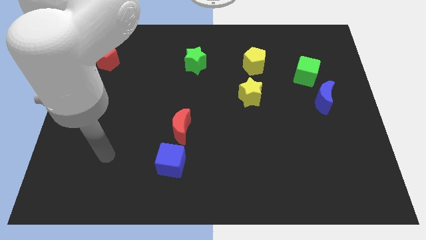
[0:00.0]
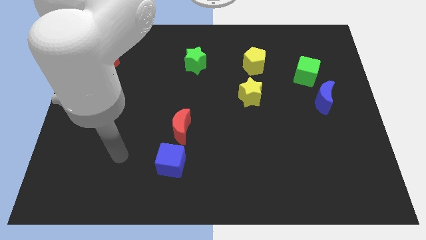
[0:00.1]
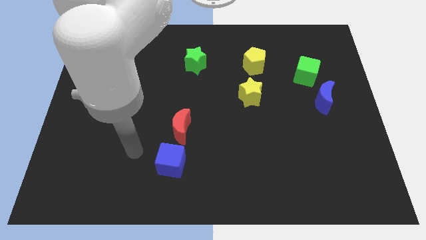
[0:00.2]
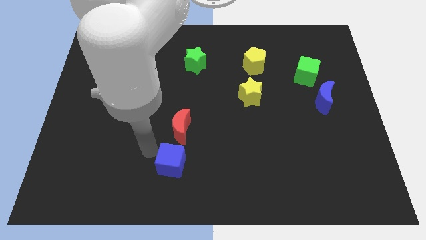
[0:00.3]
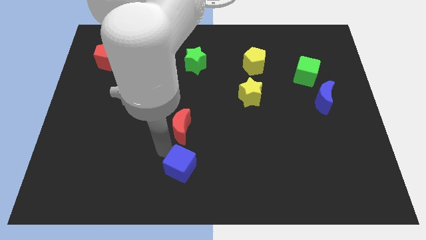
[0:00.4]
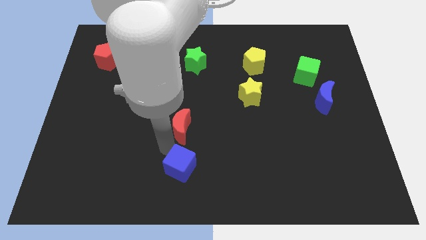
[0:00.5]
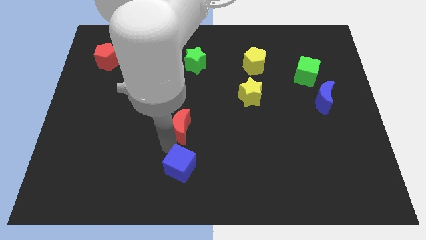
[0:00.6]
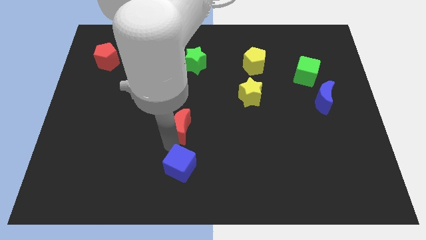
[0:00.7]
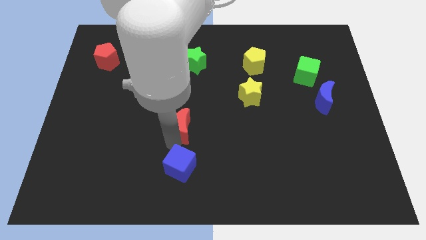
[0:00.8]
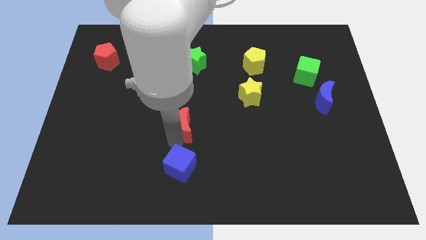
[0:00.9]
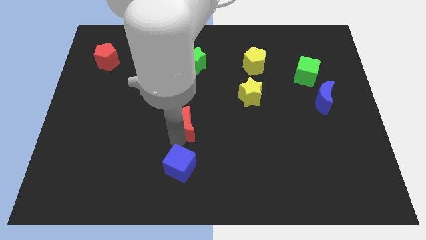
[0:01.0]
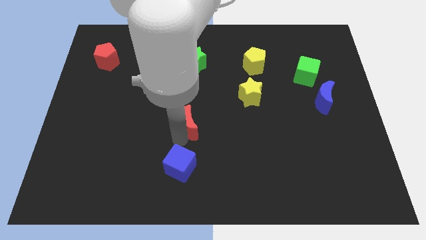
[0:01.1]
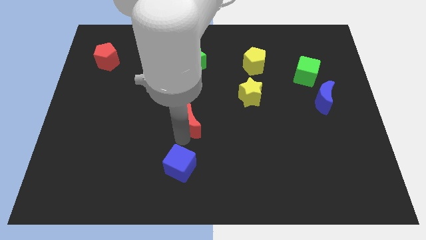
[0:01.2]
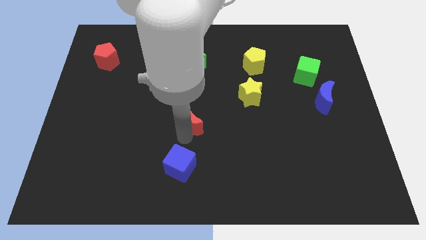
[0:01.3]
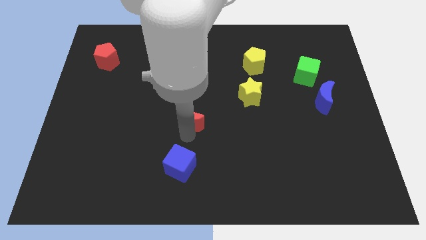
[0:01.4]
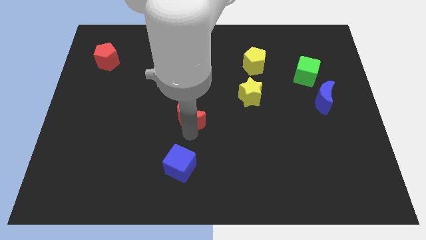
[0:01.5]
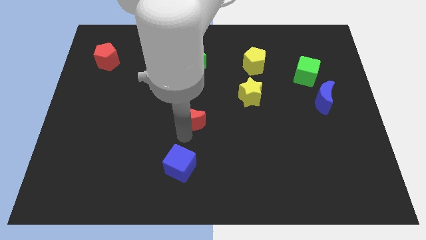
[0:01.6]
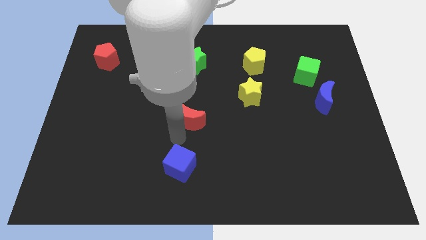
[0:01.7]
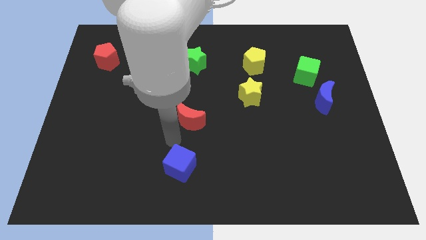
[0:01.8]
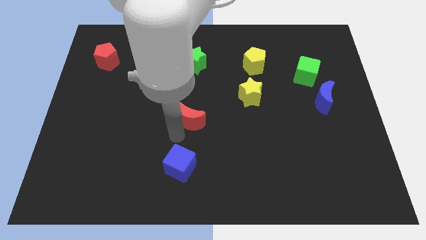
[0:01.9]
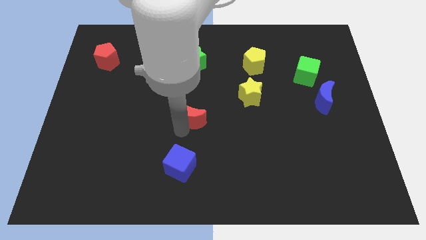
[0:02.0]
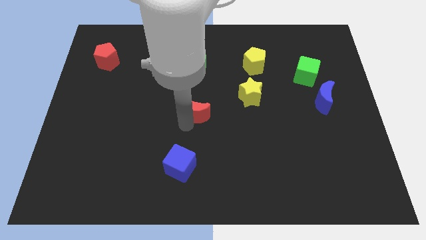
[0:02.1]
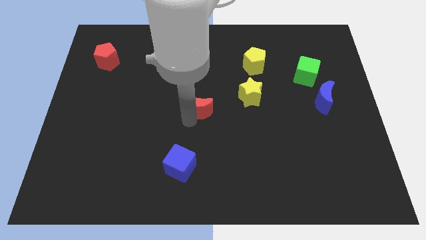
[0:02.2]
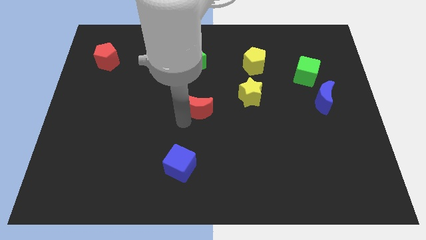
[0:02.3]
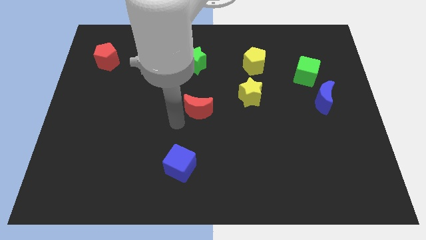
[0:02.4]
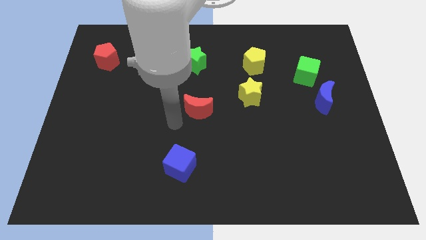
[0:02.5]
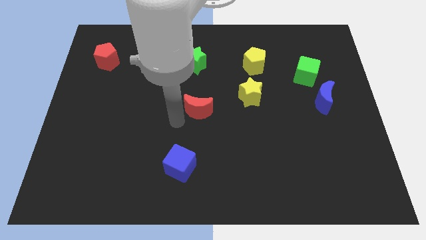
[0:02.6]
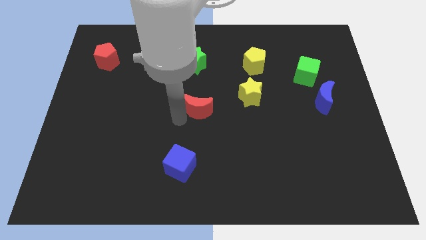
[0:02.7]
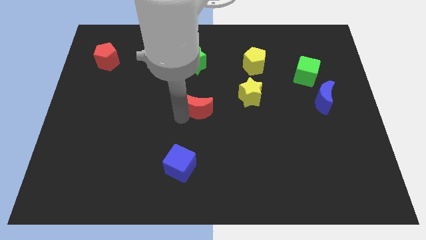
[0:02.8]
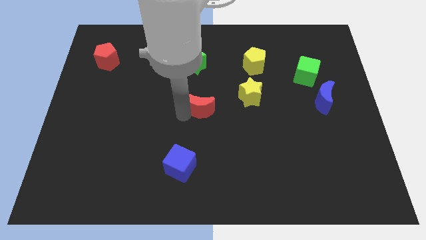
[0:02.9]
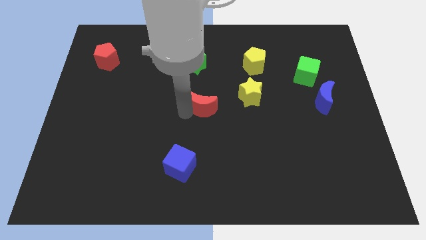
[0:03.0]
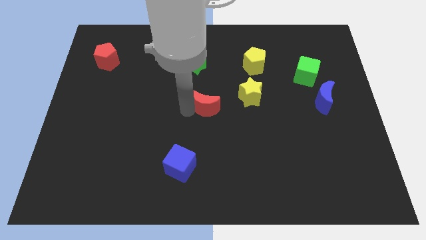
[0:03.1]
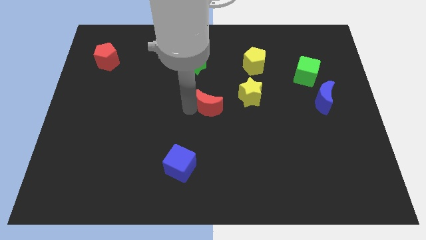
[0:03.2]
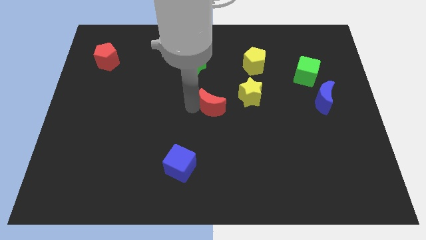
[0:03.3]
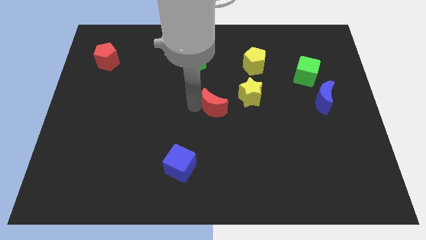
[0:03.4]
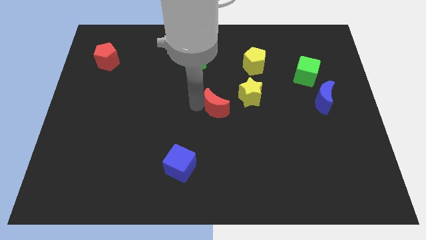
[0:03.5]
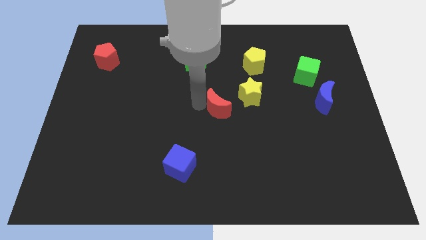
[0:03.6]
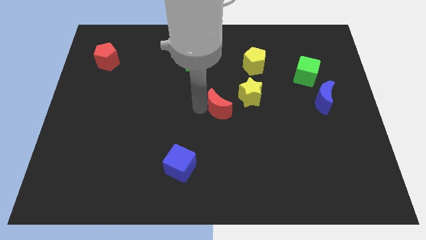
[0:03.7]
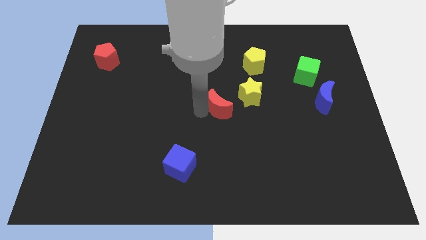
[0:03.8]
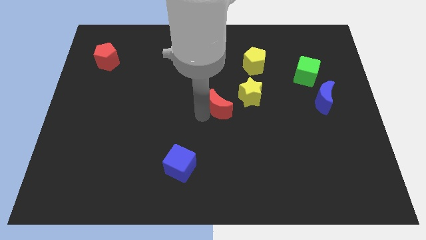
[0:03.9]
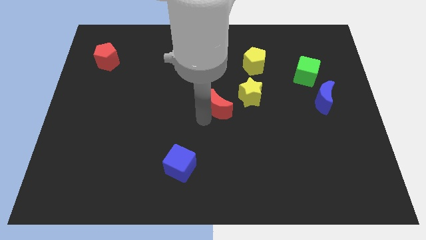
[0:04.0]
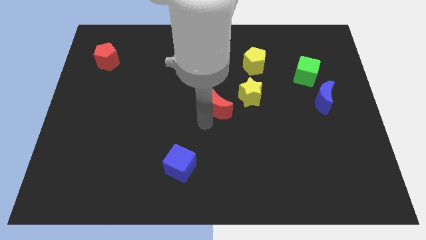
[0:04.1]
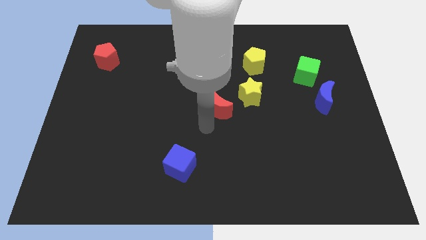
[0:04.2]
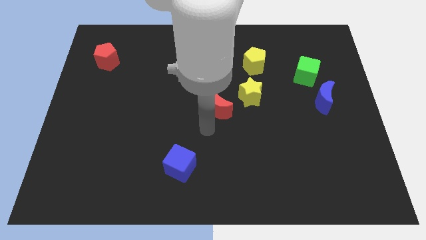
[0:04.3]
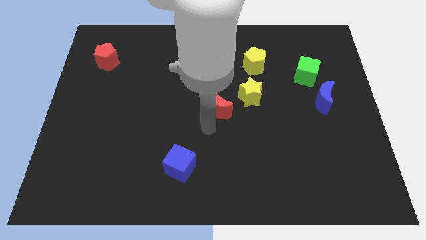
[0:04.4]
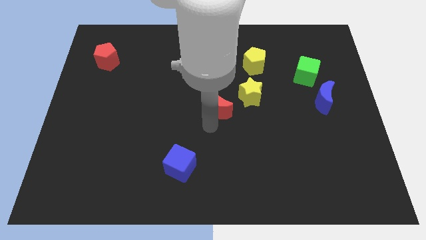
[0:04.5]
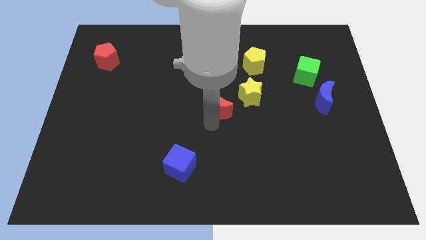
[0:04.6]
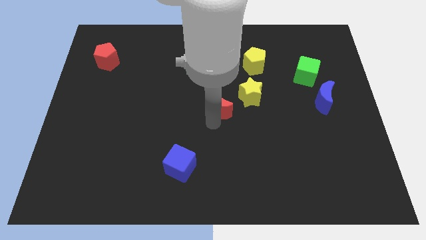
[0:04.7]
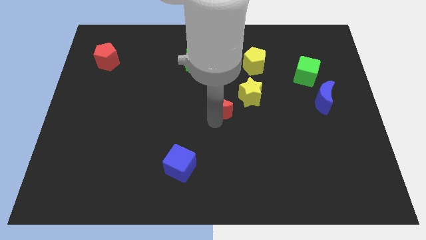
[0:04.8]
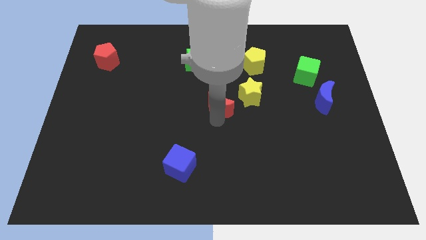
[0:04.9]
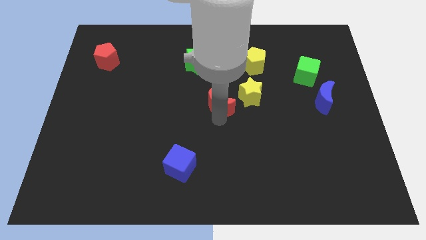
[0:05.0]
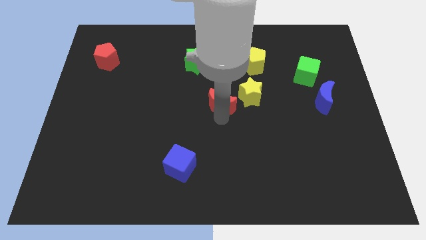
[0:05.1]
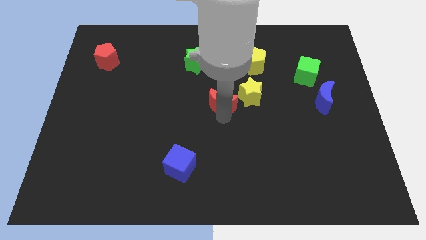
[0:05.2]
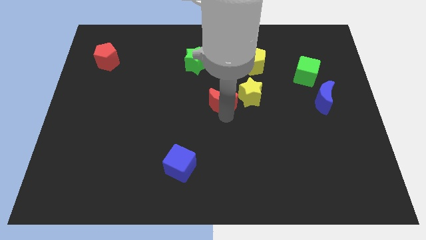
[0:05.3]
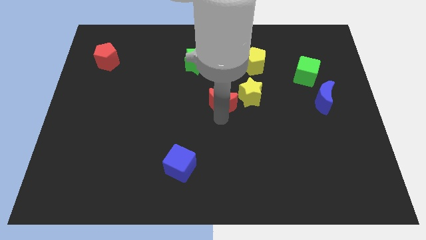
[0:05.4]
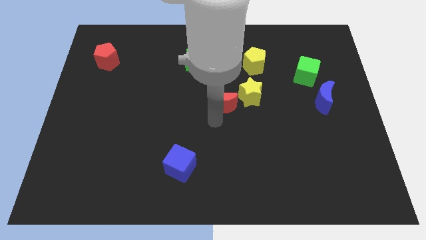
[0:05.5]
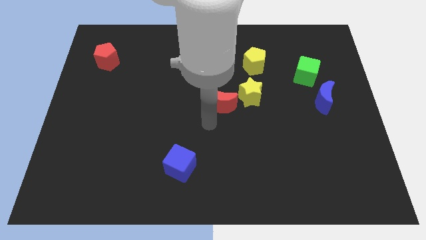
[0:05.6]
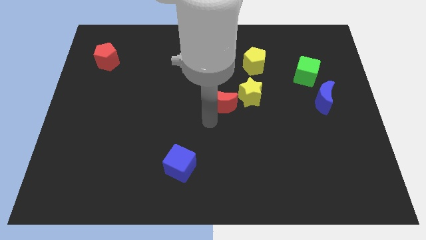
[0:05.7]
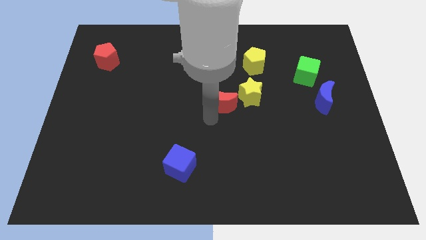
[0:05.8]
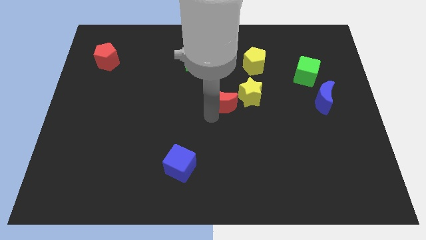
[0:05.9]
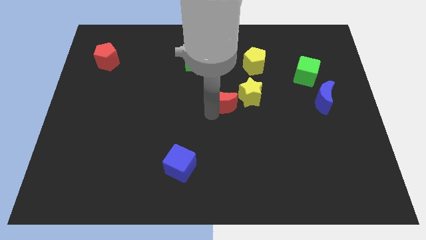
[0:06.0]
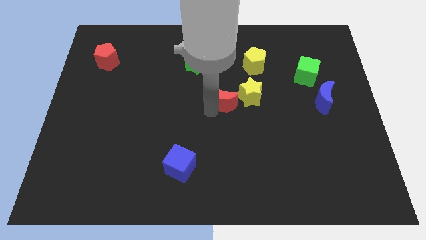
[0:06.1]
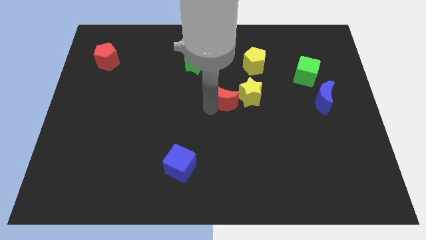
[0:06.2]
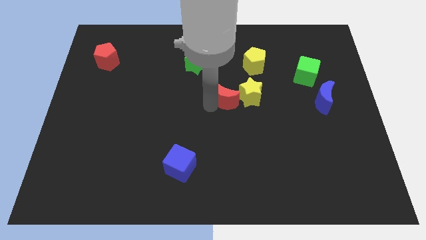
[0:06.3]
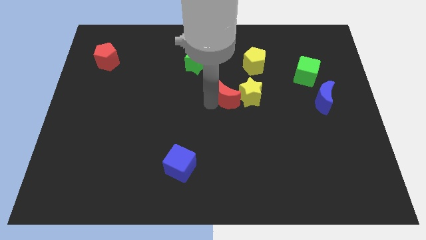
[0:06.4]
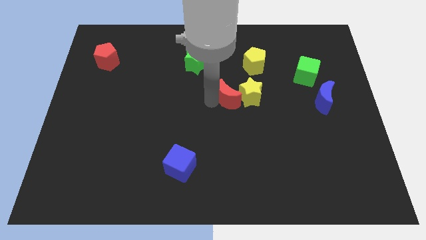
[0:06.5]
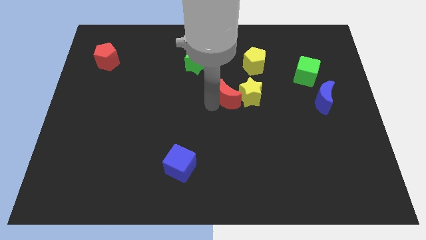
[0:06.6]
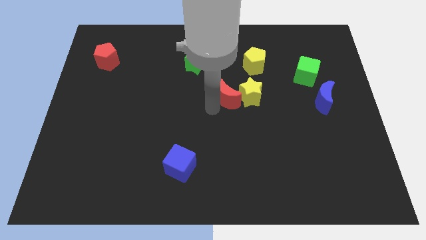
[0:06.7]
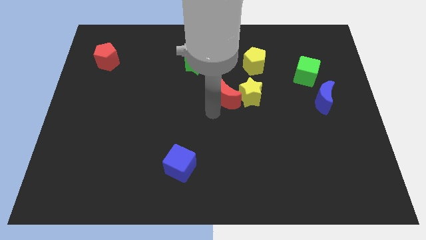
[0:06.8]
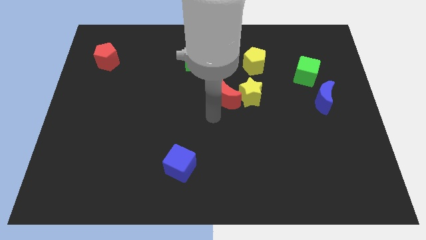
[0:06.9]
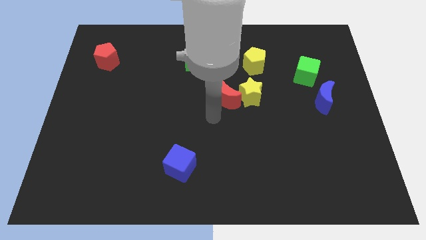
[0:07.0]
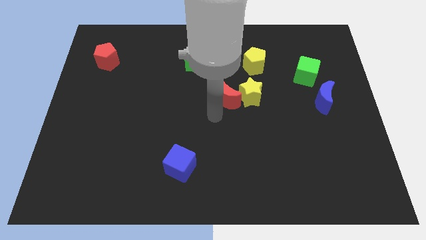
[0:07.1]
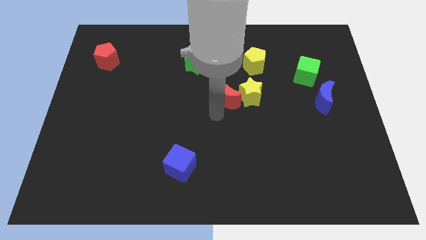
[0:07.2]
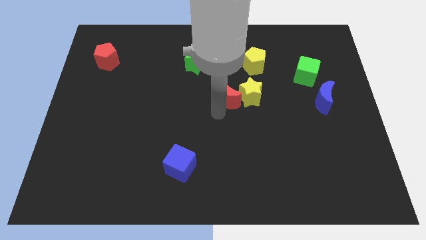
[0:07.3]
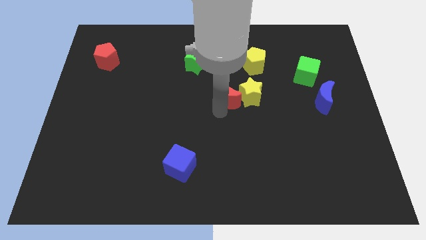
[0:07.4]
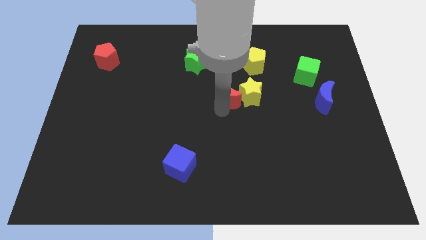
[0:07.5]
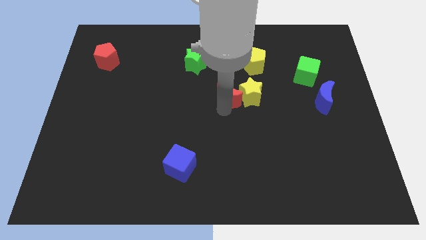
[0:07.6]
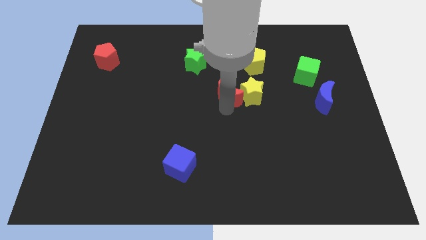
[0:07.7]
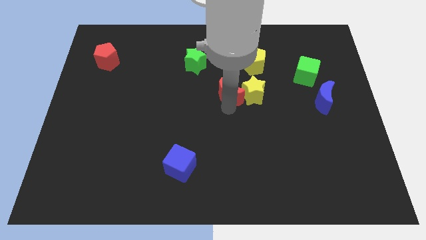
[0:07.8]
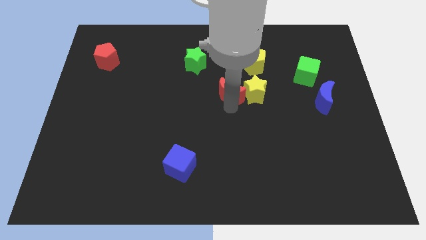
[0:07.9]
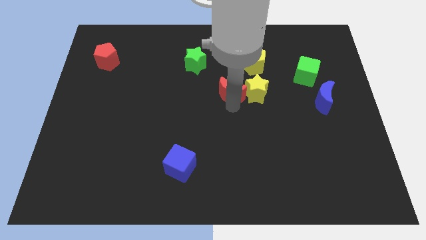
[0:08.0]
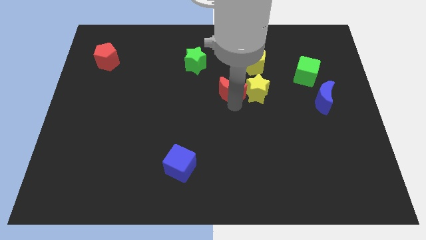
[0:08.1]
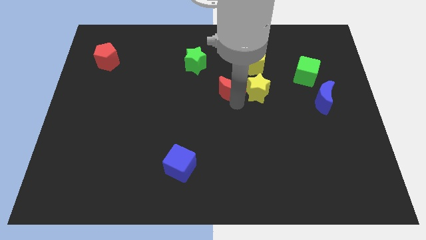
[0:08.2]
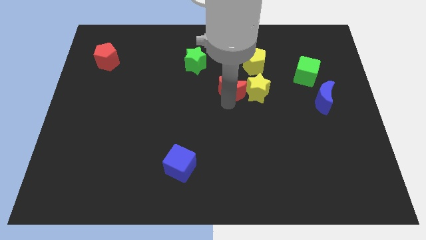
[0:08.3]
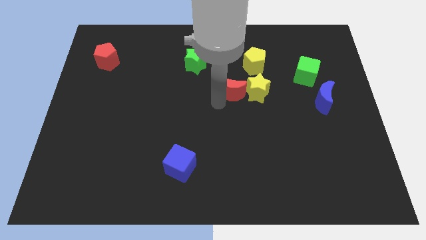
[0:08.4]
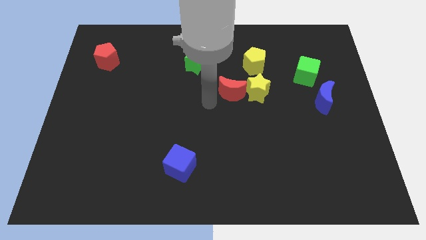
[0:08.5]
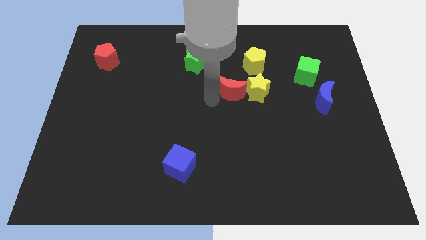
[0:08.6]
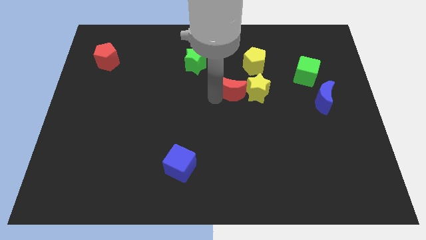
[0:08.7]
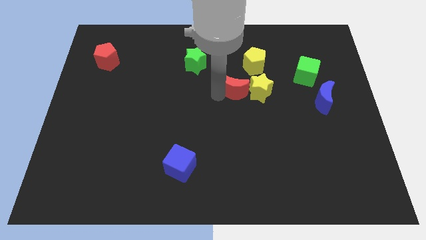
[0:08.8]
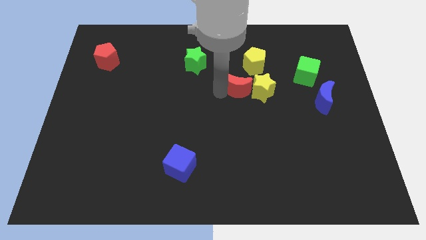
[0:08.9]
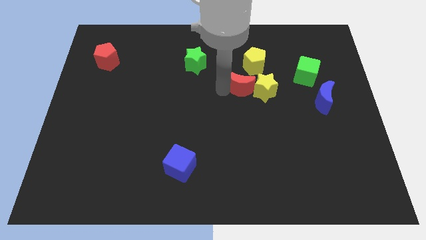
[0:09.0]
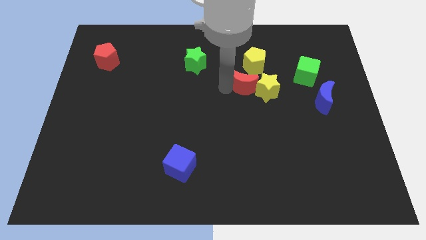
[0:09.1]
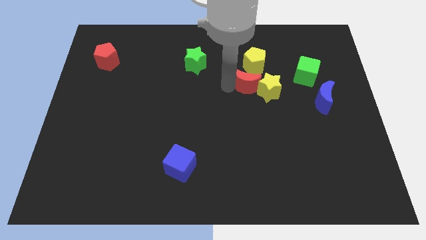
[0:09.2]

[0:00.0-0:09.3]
slide the red moon diagonally up and right
